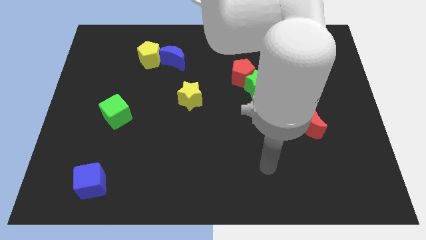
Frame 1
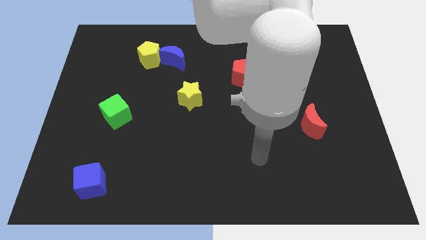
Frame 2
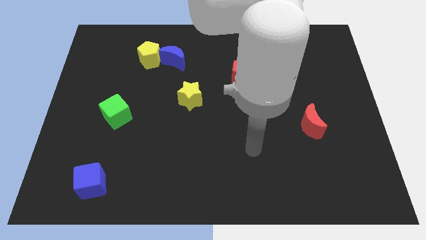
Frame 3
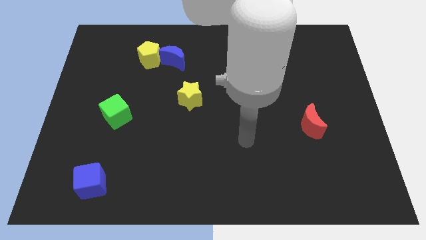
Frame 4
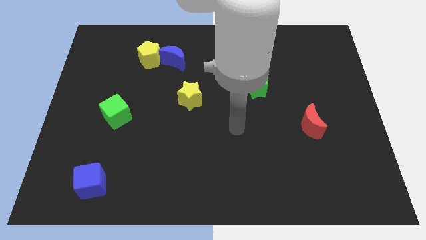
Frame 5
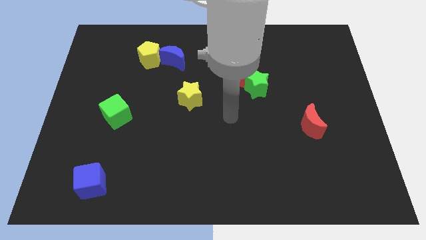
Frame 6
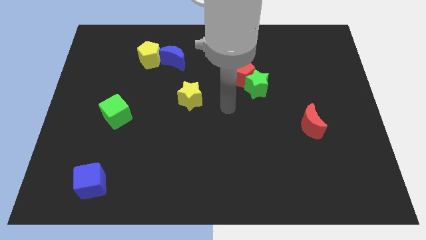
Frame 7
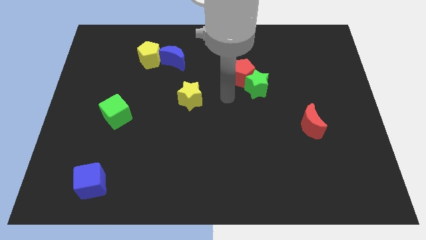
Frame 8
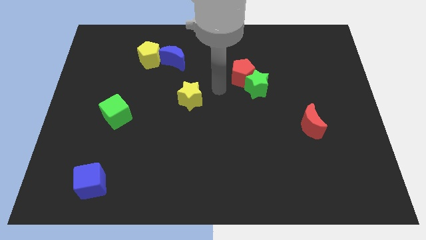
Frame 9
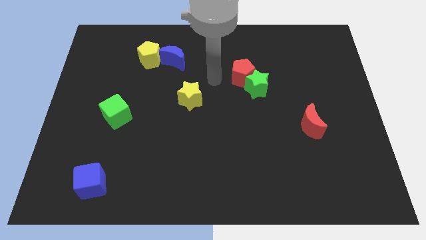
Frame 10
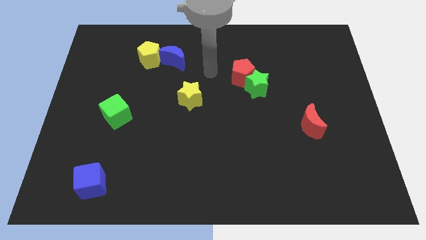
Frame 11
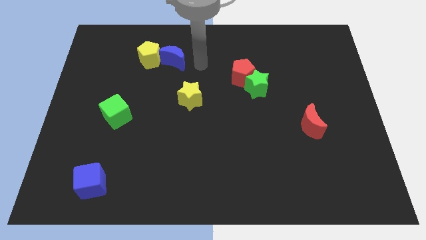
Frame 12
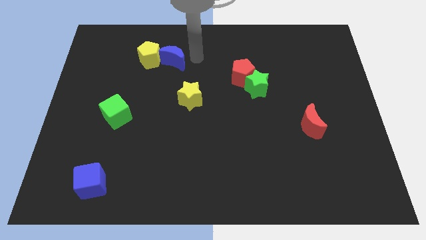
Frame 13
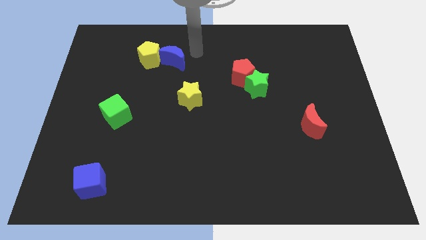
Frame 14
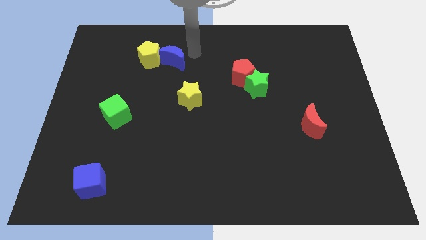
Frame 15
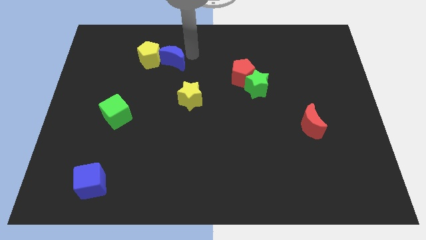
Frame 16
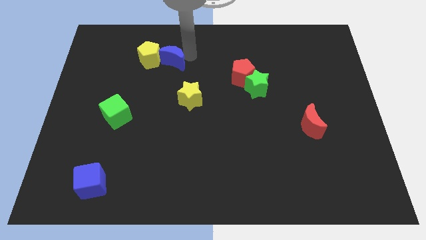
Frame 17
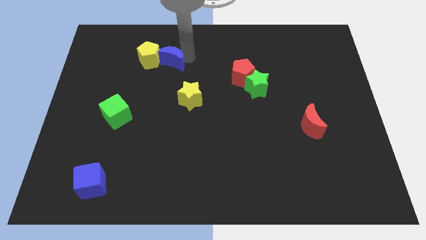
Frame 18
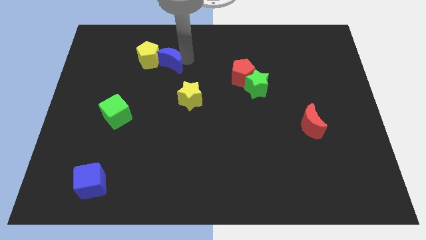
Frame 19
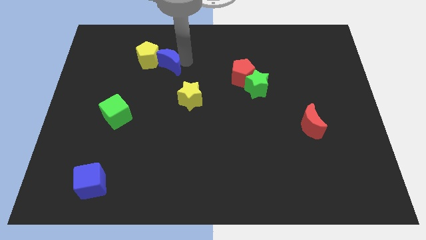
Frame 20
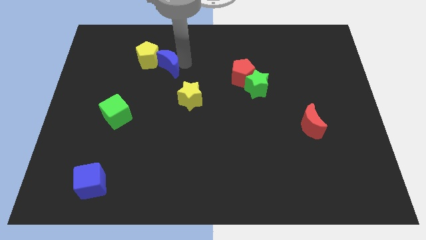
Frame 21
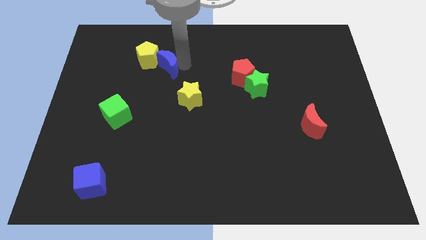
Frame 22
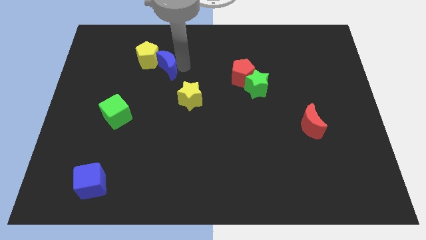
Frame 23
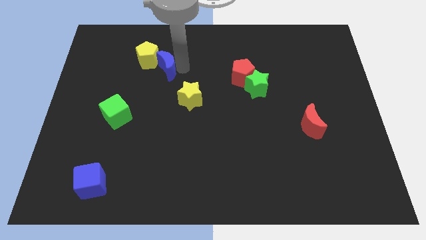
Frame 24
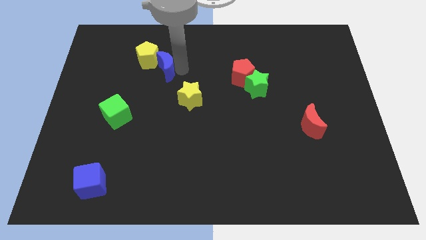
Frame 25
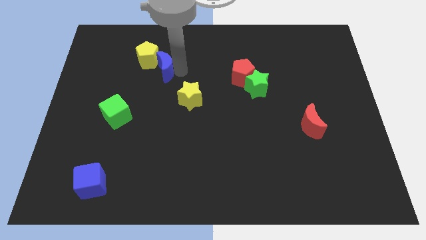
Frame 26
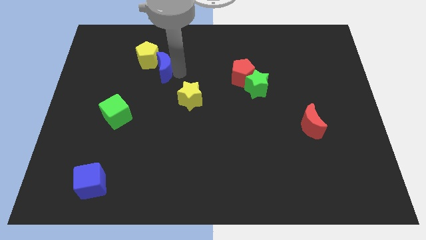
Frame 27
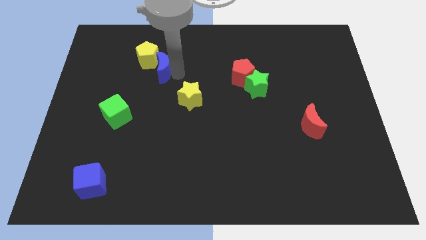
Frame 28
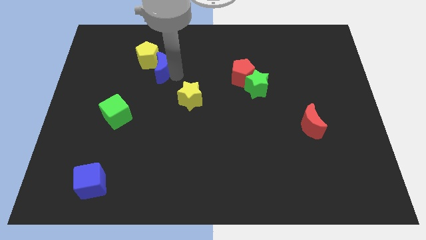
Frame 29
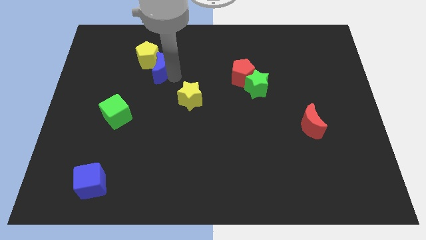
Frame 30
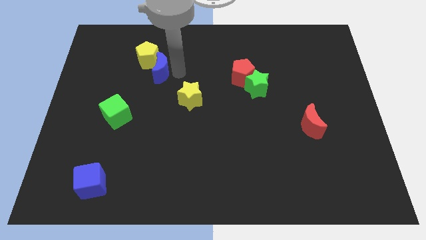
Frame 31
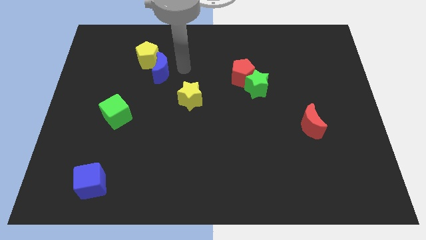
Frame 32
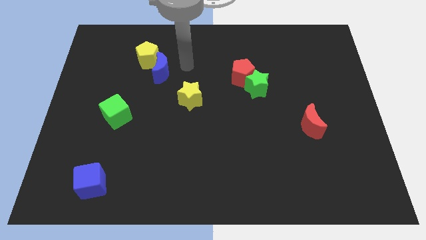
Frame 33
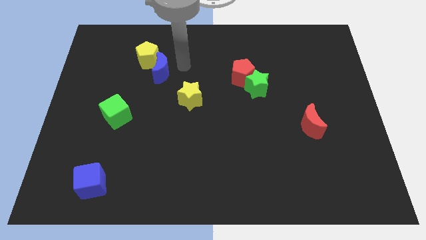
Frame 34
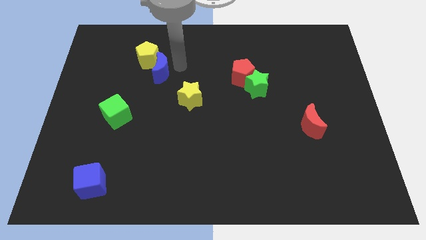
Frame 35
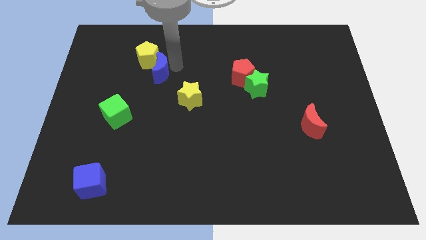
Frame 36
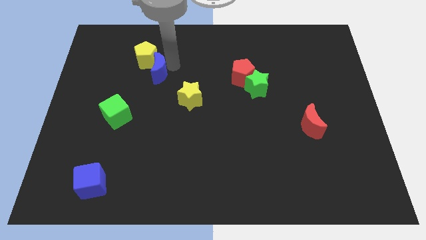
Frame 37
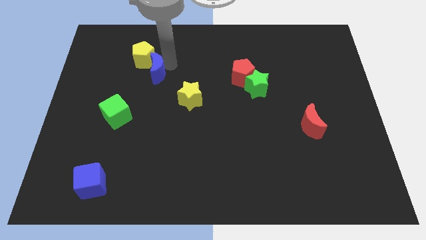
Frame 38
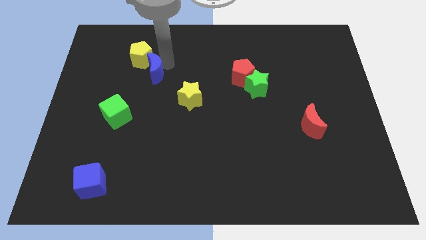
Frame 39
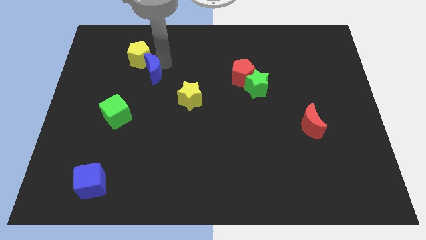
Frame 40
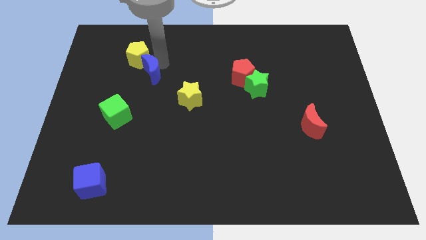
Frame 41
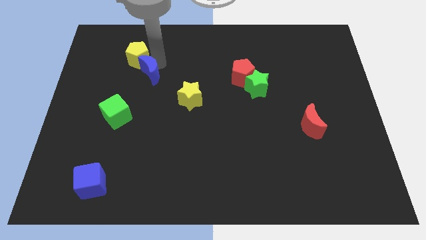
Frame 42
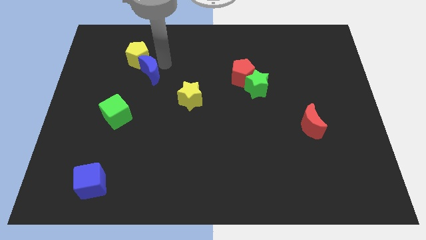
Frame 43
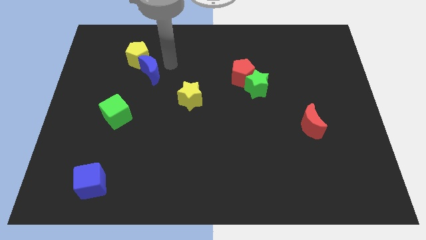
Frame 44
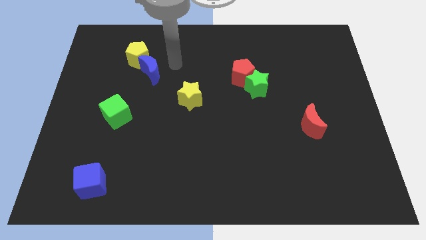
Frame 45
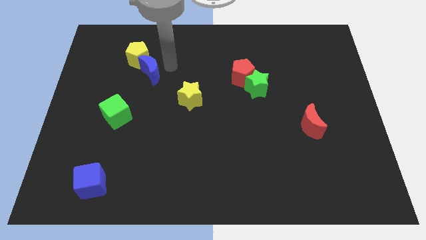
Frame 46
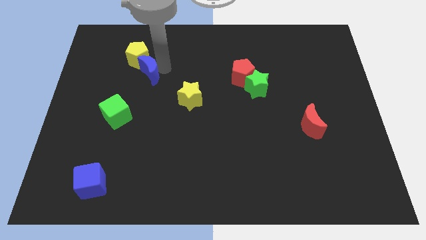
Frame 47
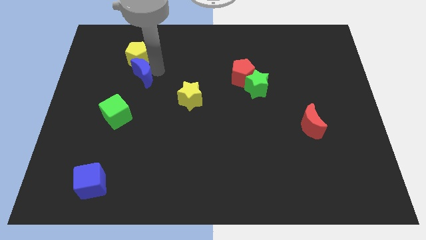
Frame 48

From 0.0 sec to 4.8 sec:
slide the blue moon above the green cube

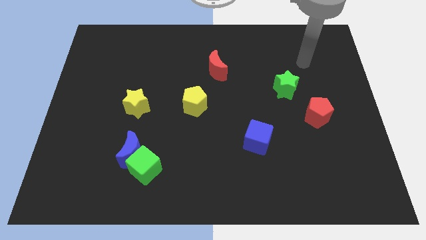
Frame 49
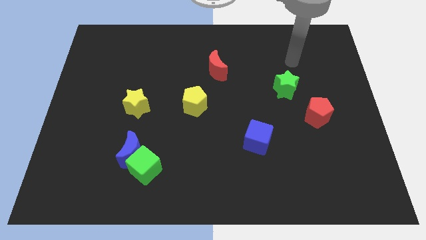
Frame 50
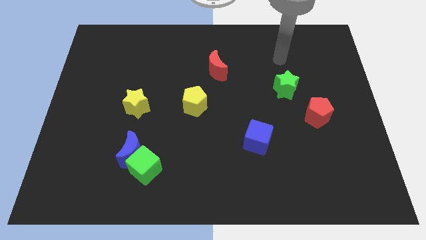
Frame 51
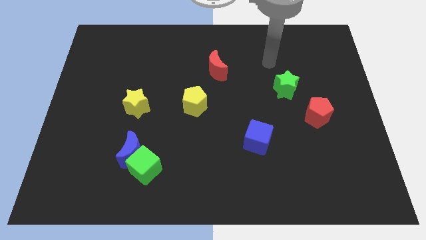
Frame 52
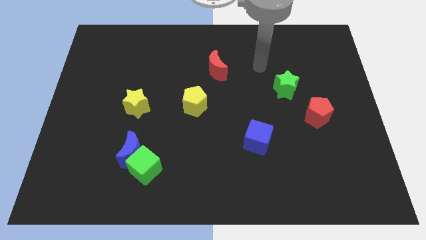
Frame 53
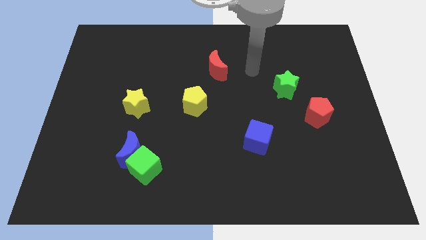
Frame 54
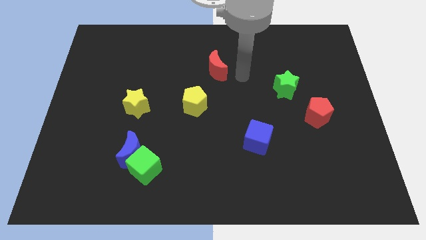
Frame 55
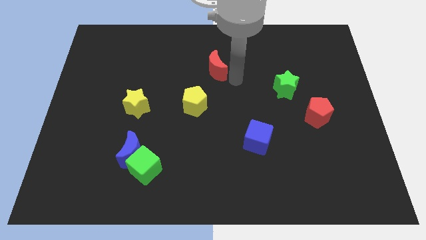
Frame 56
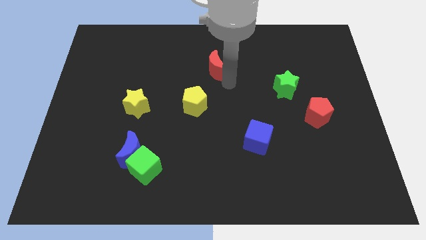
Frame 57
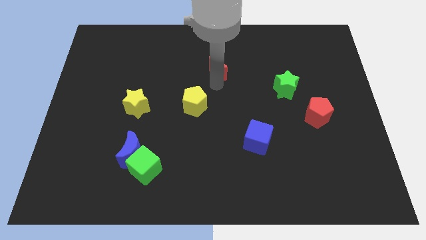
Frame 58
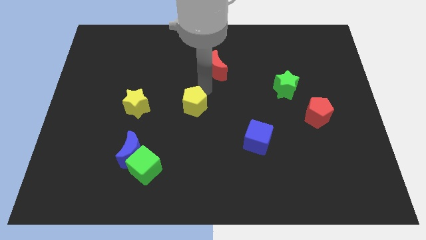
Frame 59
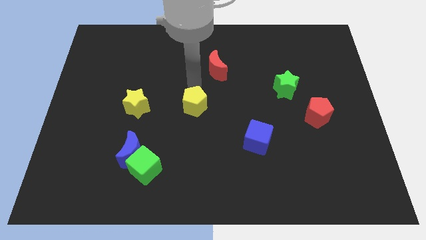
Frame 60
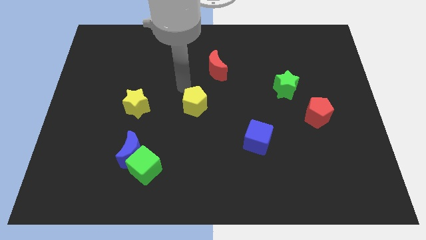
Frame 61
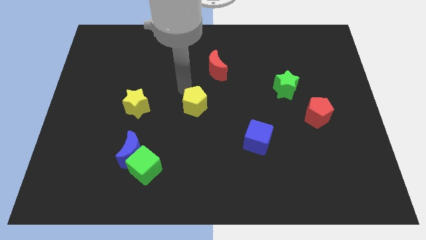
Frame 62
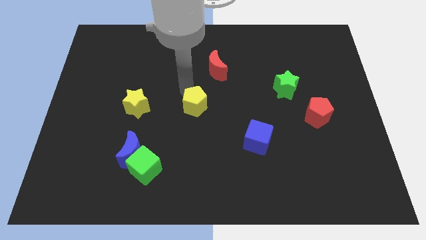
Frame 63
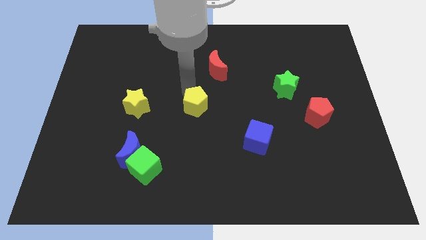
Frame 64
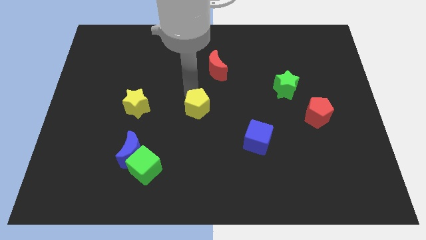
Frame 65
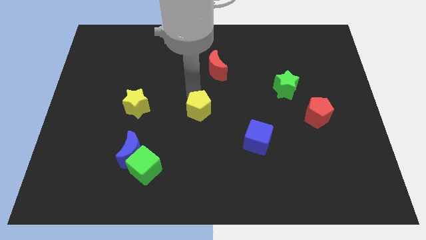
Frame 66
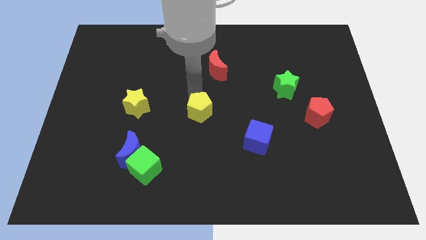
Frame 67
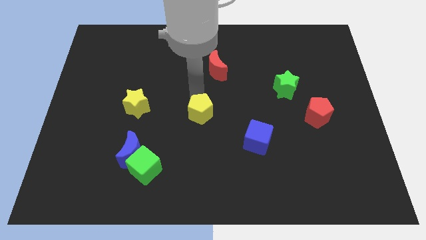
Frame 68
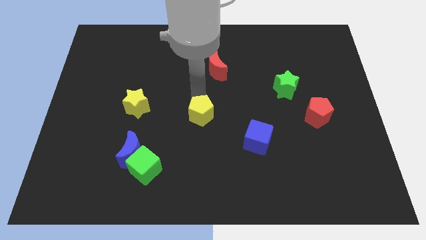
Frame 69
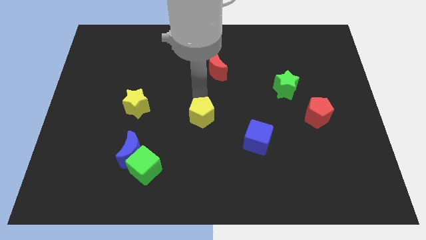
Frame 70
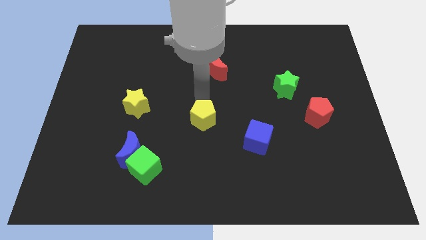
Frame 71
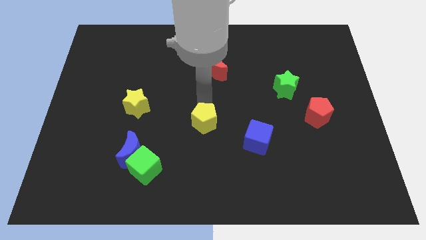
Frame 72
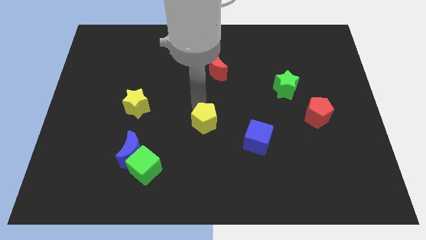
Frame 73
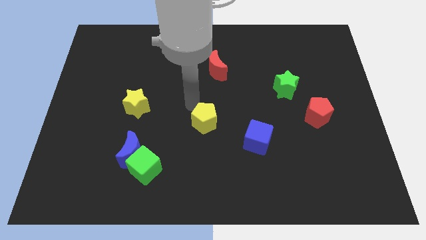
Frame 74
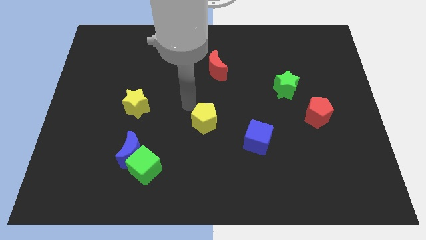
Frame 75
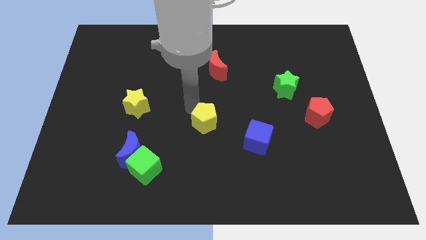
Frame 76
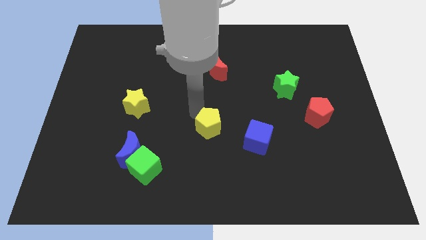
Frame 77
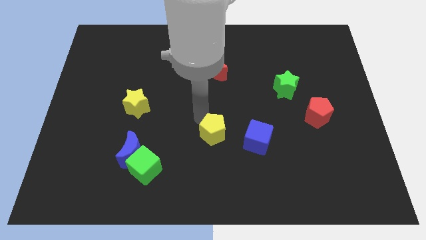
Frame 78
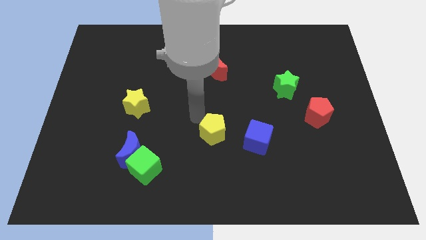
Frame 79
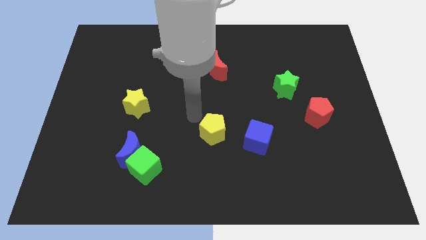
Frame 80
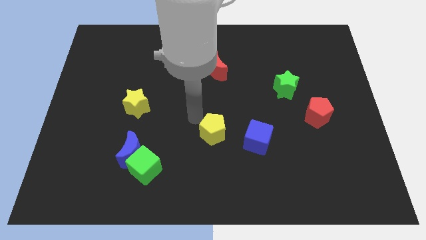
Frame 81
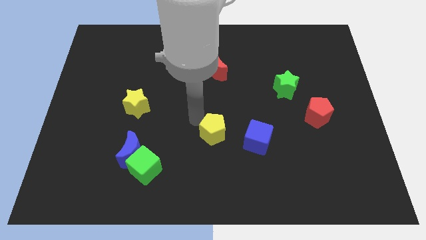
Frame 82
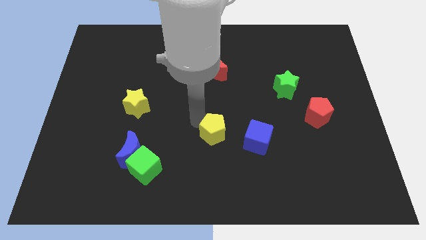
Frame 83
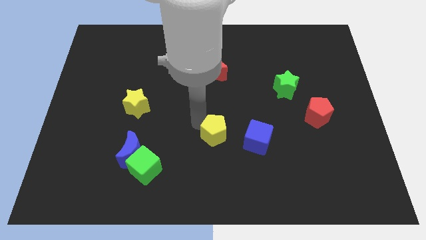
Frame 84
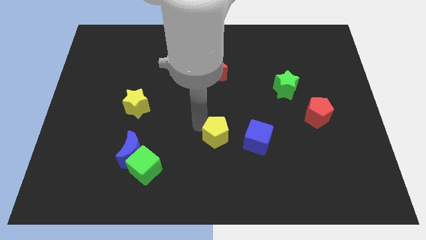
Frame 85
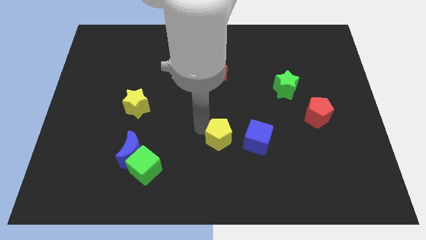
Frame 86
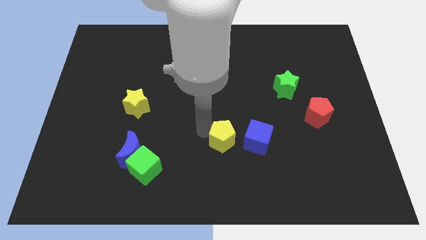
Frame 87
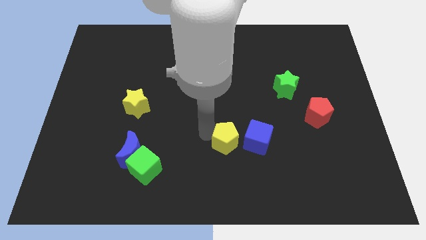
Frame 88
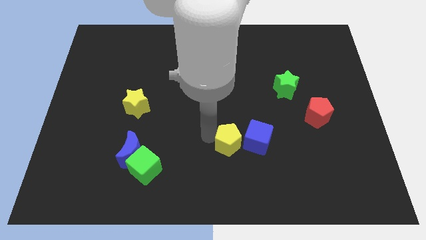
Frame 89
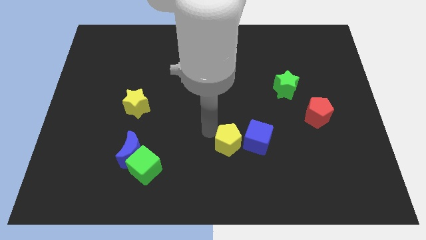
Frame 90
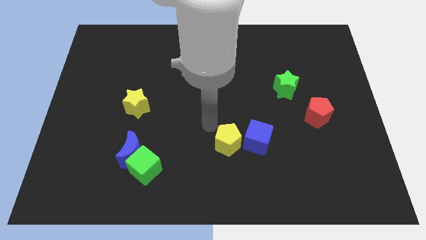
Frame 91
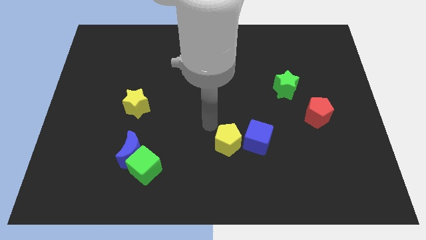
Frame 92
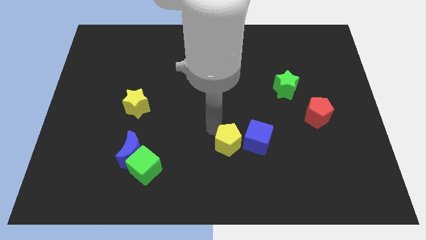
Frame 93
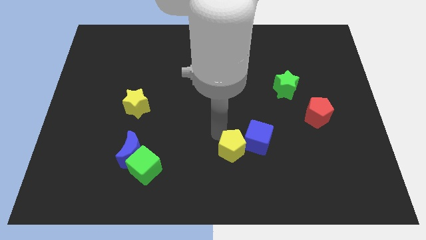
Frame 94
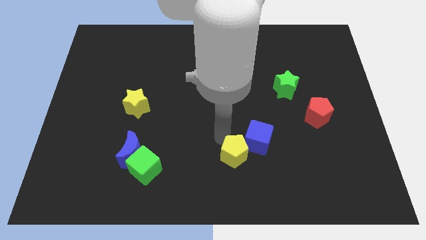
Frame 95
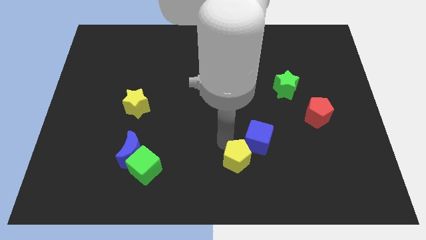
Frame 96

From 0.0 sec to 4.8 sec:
put the yellow pentagon to the bottom of the blue cube
